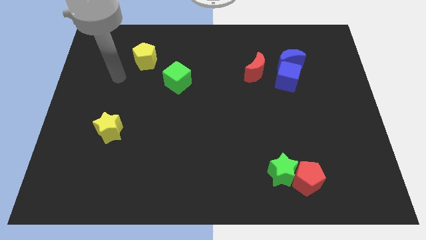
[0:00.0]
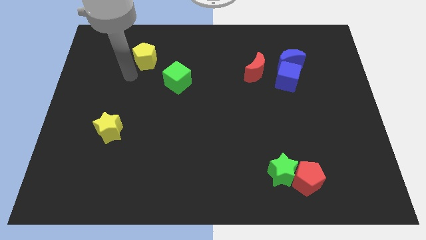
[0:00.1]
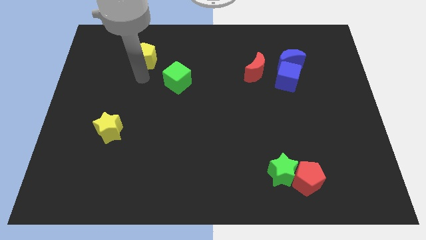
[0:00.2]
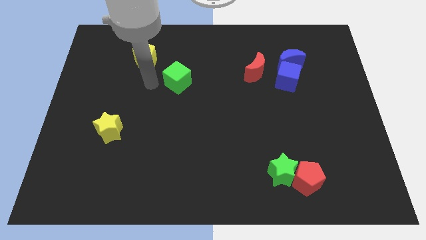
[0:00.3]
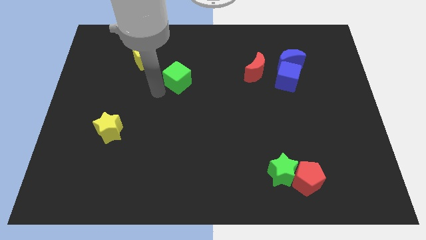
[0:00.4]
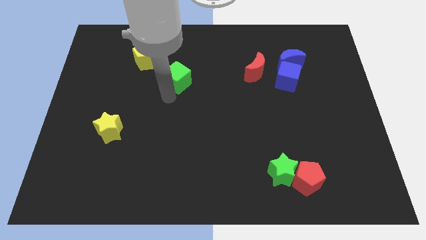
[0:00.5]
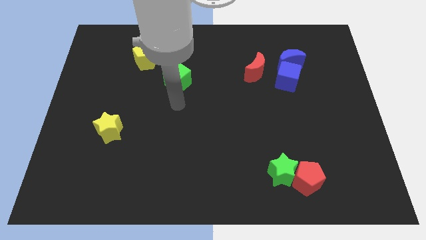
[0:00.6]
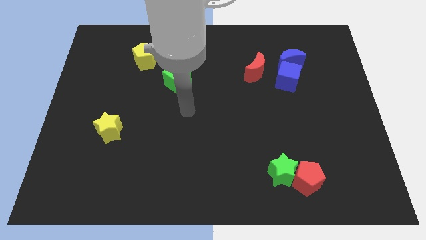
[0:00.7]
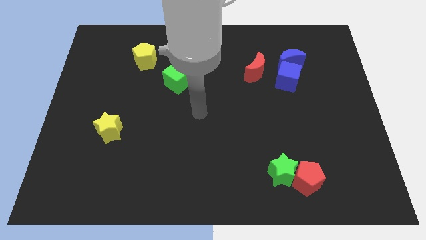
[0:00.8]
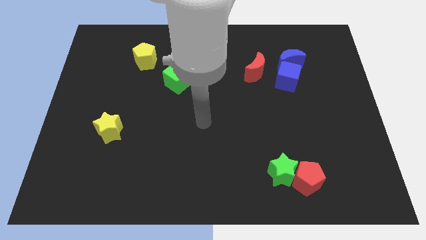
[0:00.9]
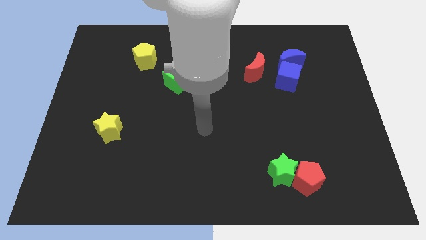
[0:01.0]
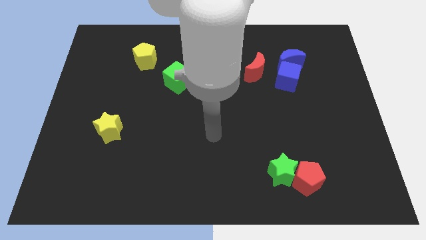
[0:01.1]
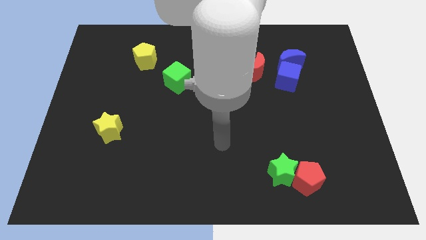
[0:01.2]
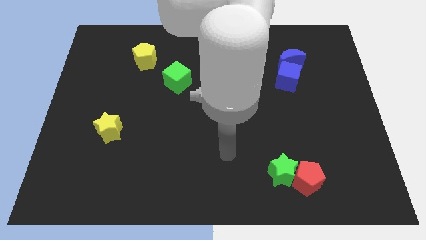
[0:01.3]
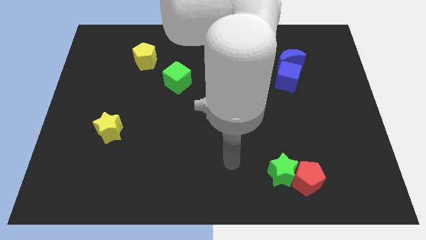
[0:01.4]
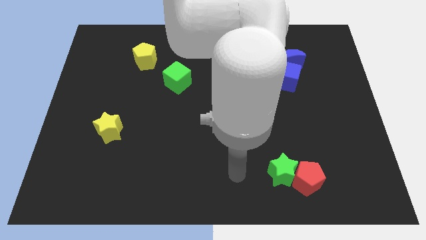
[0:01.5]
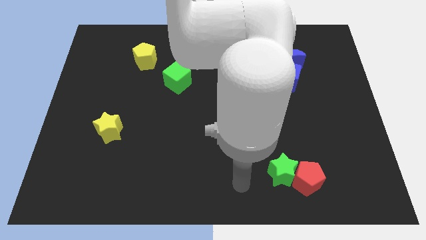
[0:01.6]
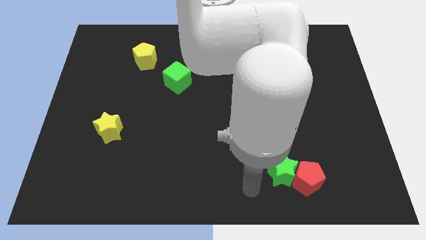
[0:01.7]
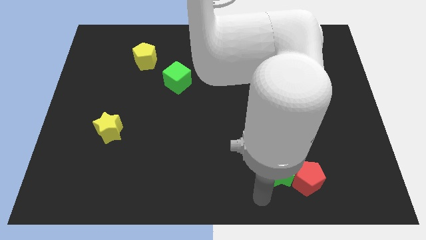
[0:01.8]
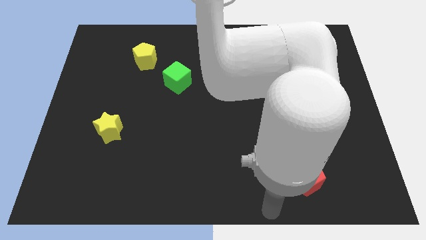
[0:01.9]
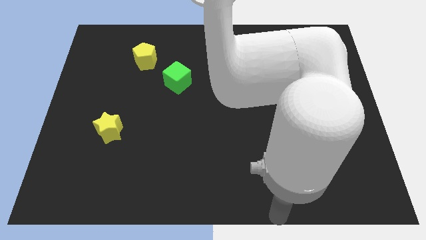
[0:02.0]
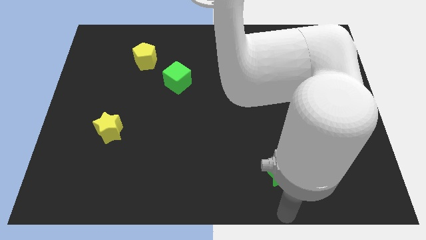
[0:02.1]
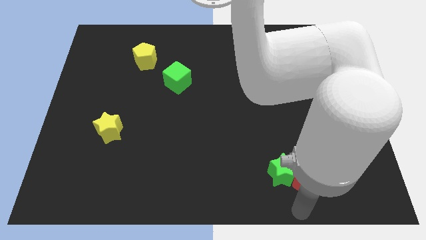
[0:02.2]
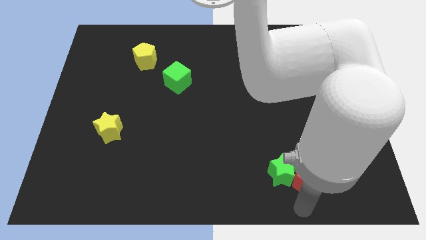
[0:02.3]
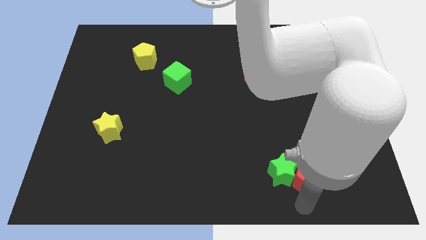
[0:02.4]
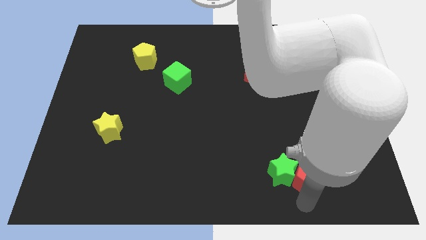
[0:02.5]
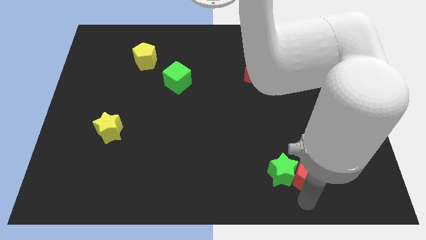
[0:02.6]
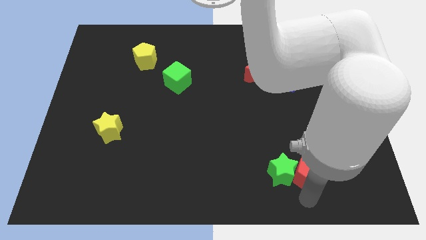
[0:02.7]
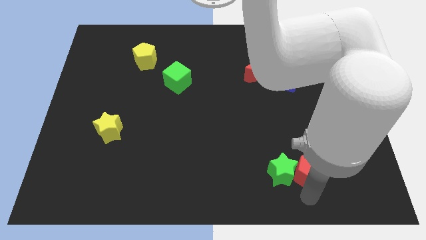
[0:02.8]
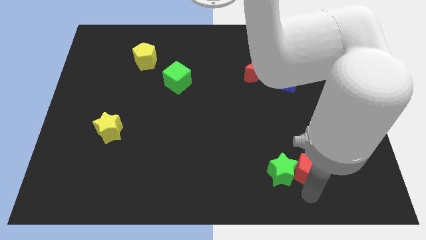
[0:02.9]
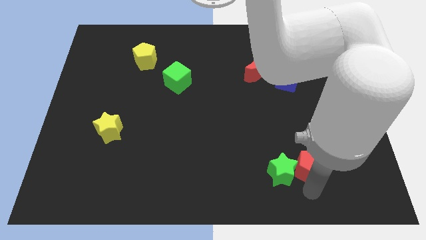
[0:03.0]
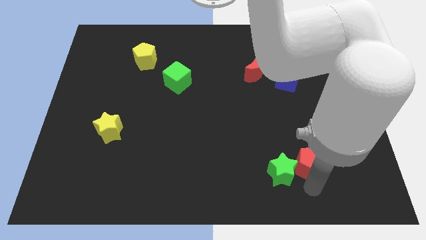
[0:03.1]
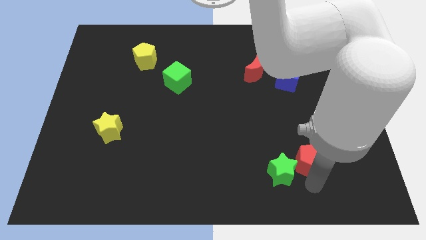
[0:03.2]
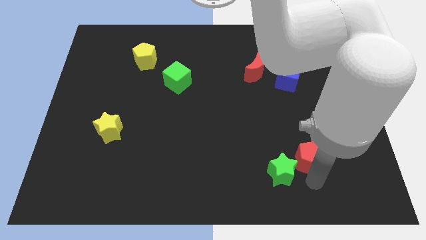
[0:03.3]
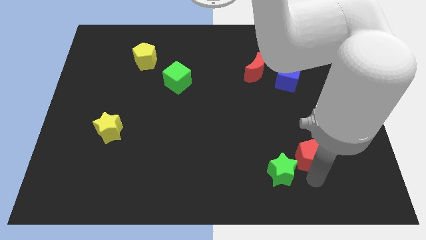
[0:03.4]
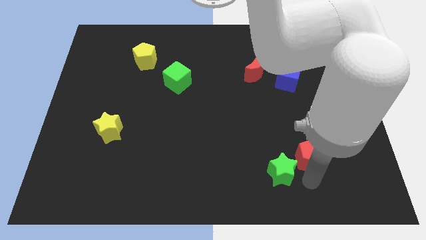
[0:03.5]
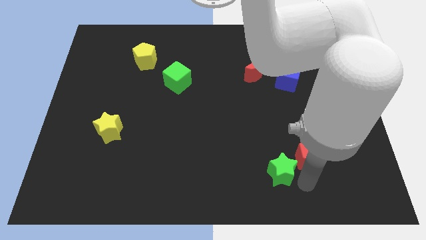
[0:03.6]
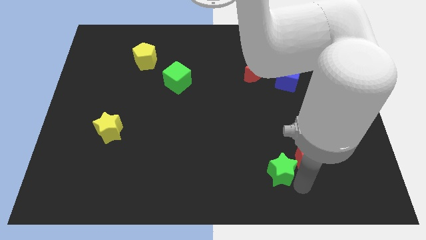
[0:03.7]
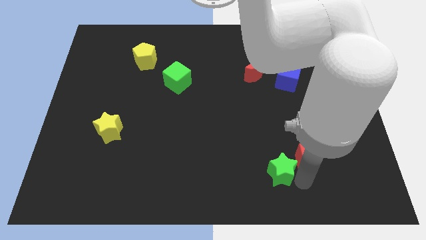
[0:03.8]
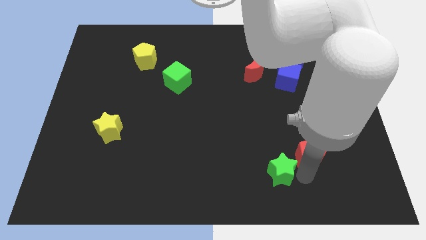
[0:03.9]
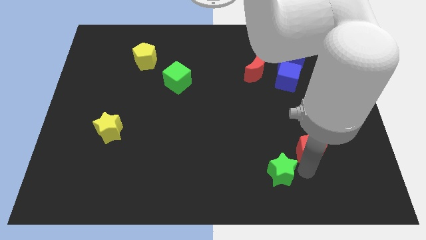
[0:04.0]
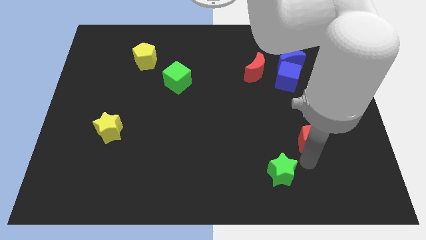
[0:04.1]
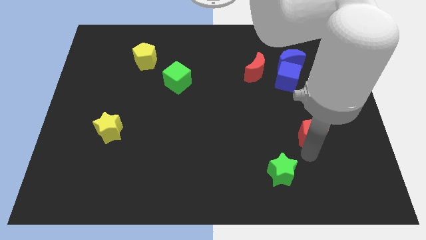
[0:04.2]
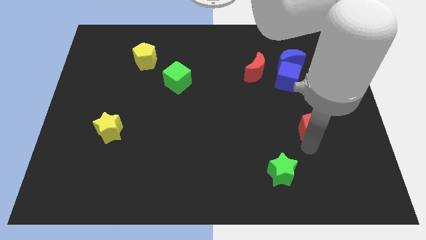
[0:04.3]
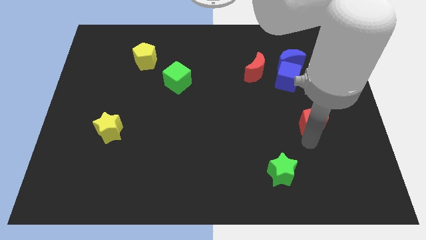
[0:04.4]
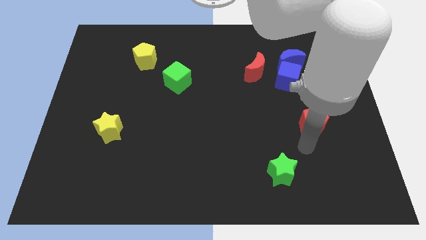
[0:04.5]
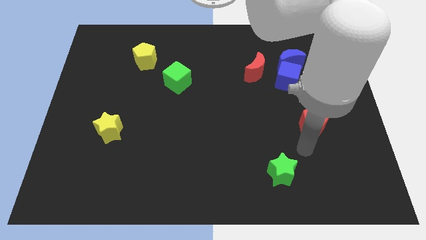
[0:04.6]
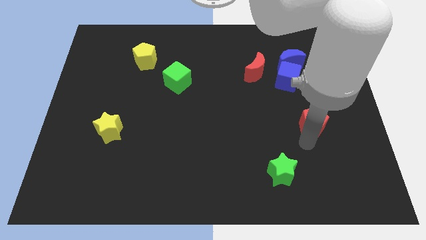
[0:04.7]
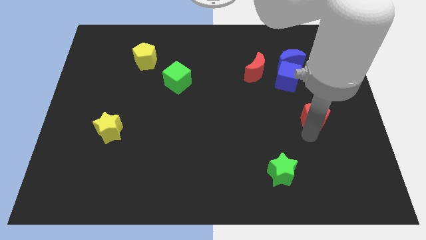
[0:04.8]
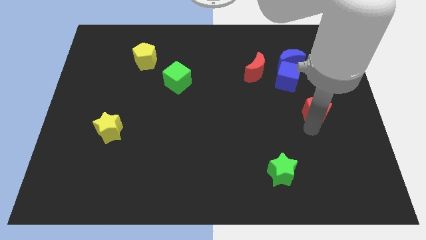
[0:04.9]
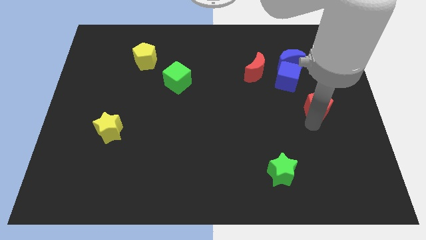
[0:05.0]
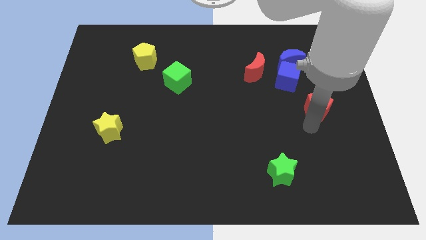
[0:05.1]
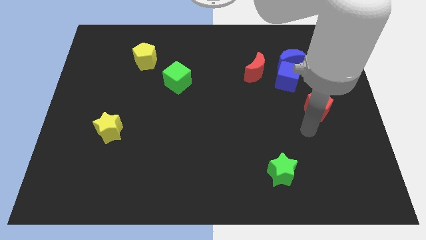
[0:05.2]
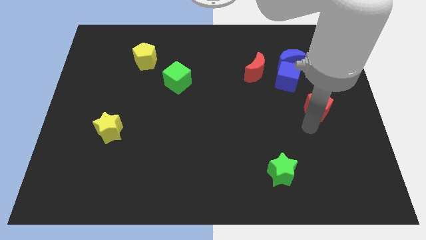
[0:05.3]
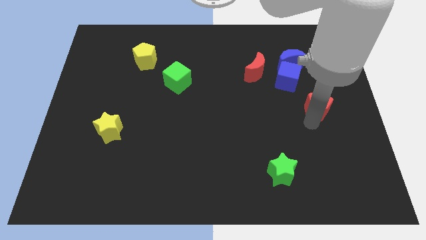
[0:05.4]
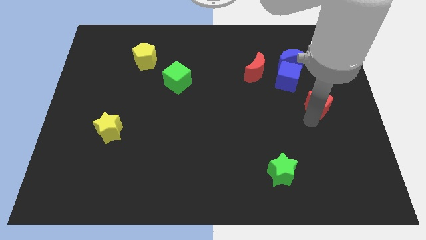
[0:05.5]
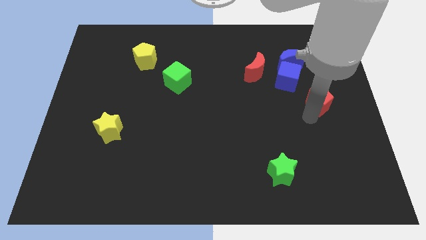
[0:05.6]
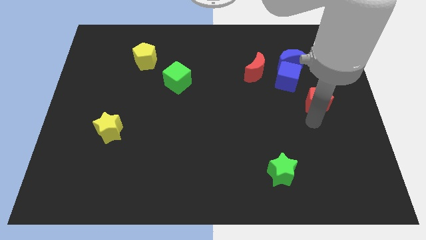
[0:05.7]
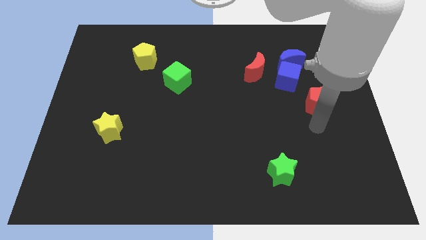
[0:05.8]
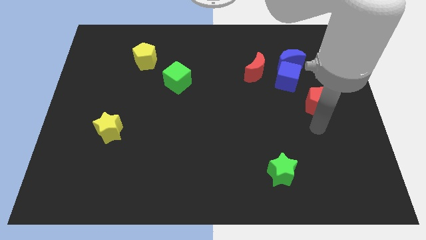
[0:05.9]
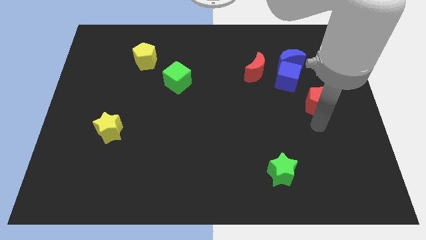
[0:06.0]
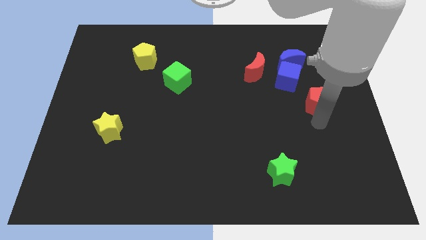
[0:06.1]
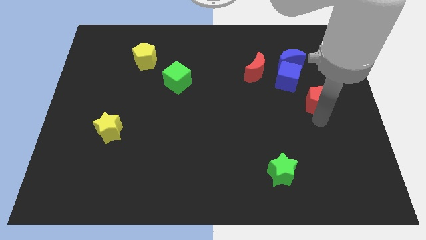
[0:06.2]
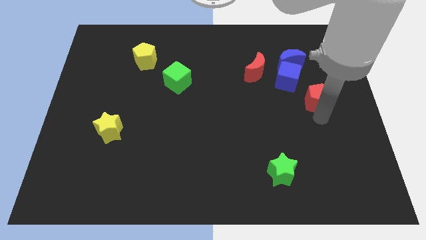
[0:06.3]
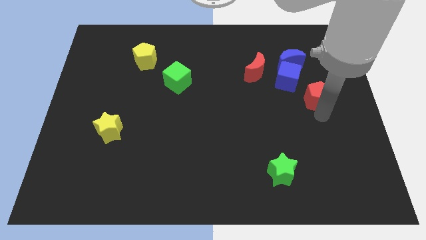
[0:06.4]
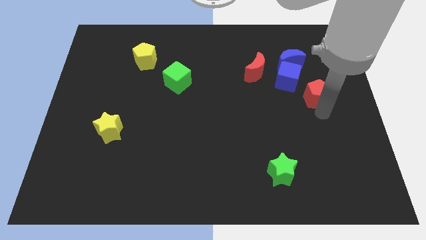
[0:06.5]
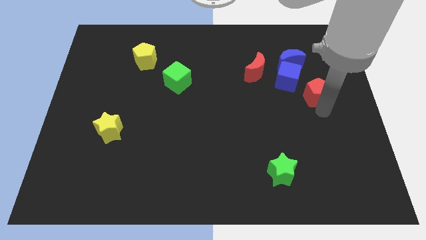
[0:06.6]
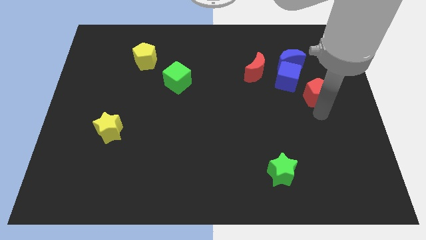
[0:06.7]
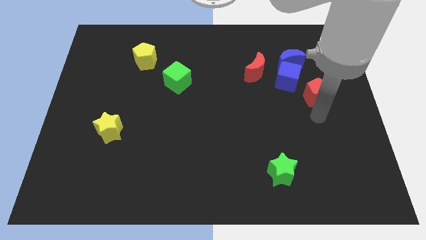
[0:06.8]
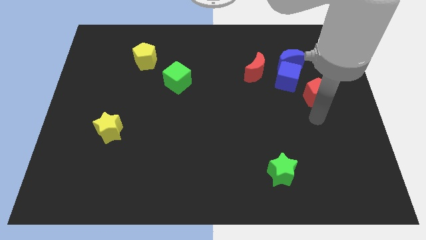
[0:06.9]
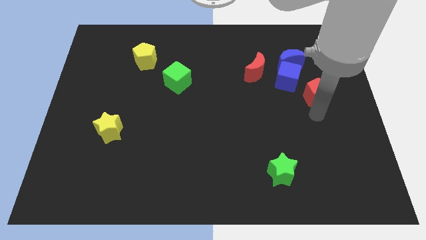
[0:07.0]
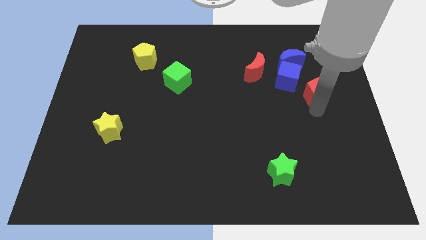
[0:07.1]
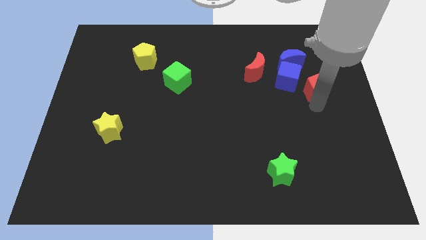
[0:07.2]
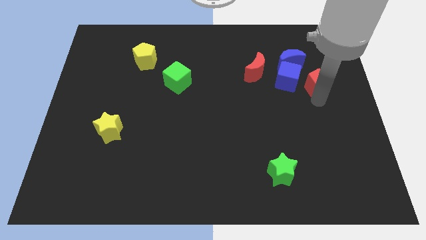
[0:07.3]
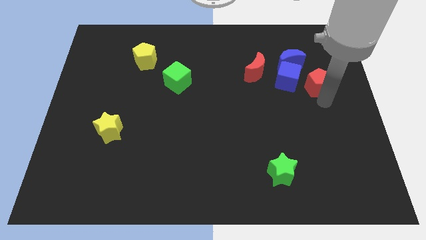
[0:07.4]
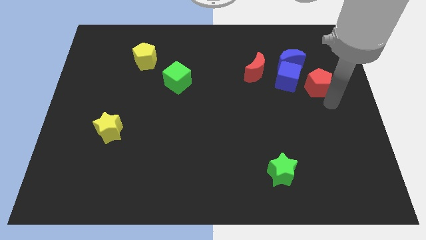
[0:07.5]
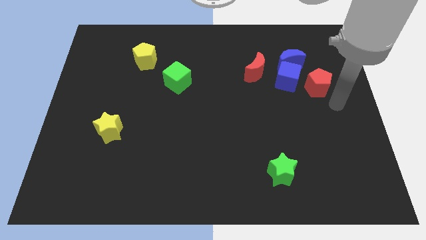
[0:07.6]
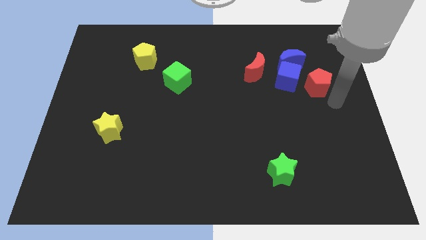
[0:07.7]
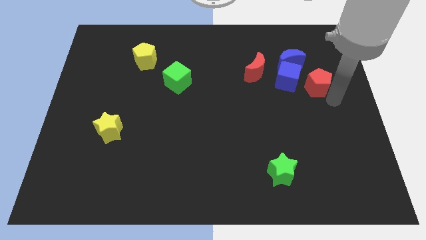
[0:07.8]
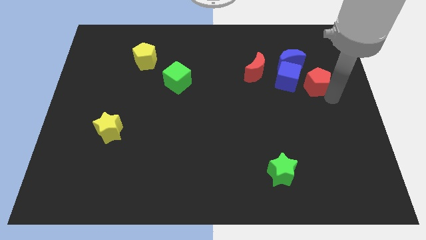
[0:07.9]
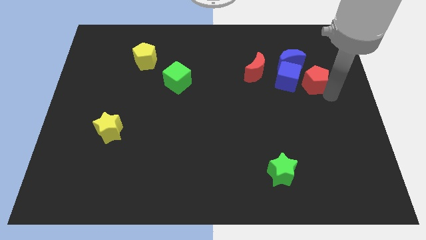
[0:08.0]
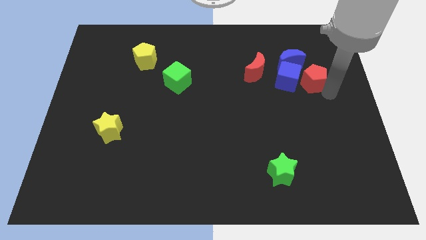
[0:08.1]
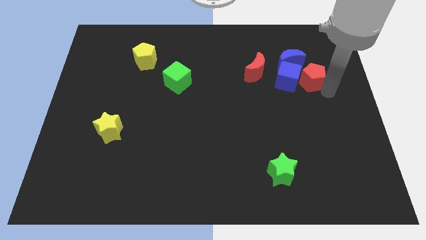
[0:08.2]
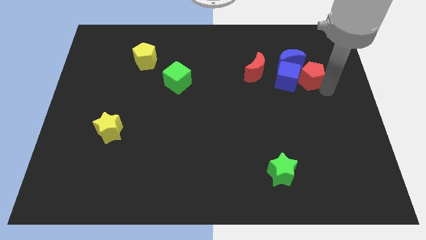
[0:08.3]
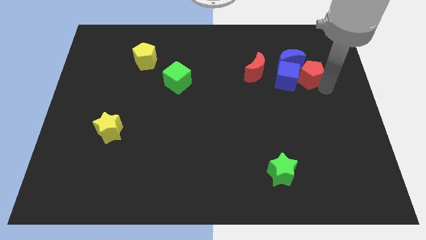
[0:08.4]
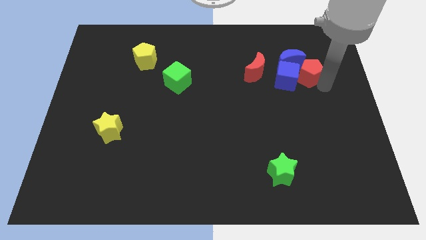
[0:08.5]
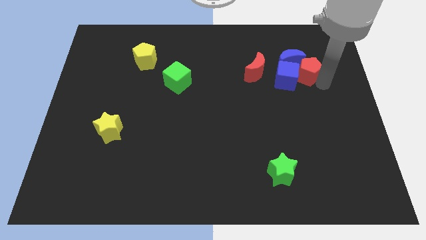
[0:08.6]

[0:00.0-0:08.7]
slide the red pentagon next to the blue moon
